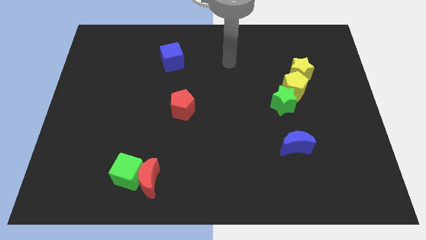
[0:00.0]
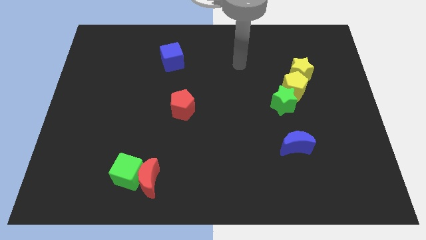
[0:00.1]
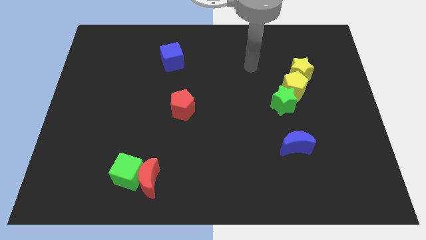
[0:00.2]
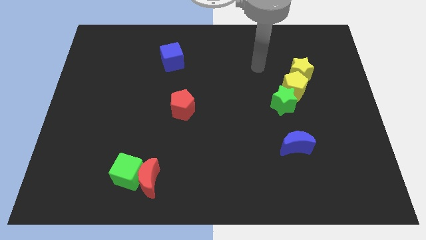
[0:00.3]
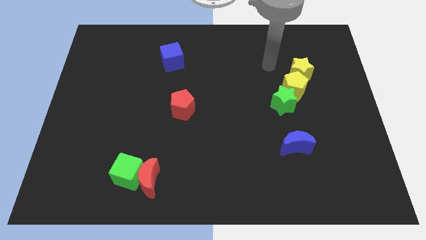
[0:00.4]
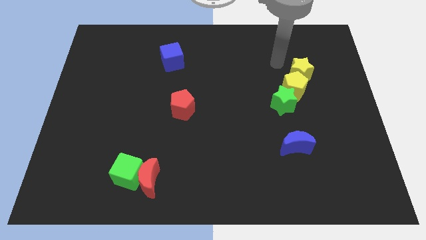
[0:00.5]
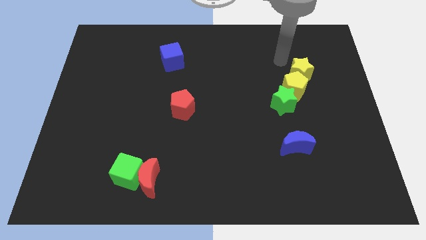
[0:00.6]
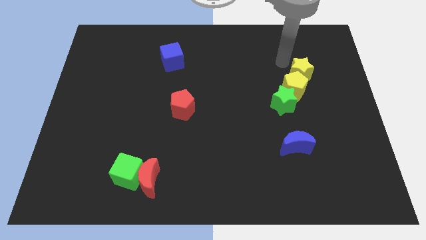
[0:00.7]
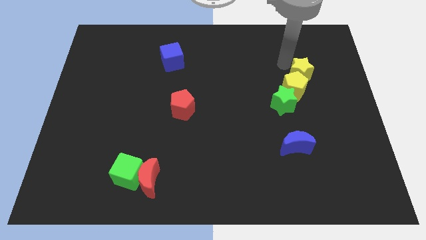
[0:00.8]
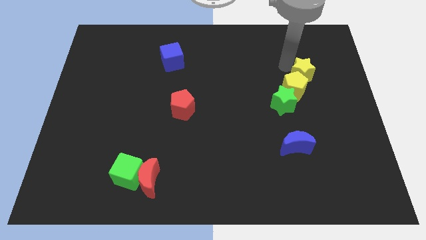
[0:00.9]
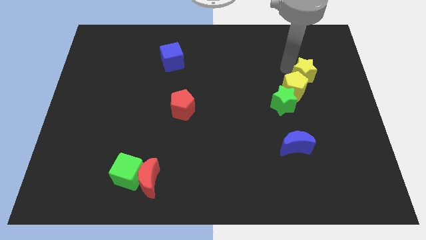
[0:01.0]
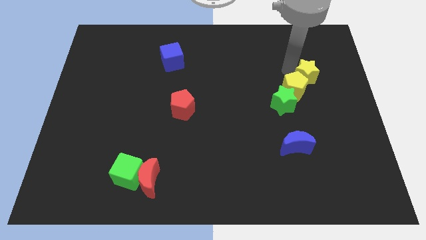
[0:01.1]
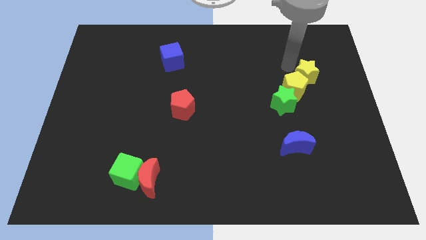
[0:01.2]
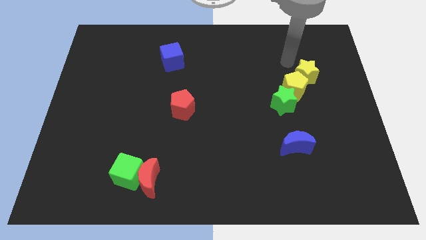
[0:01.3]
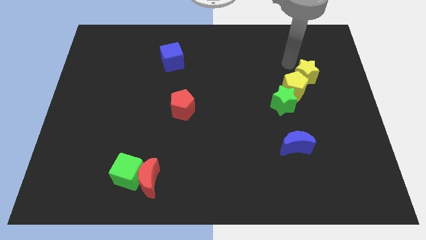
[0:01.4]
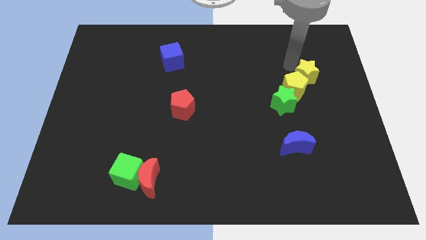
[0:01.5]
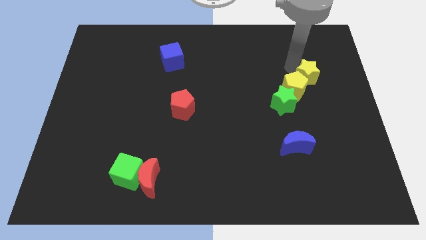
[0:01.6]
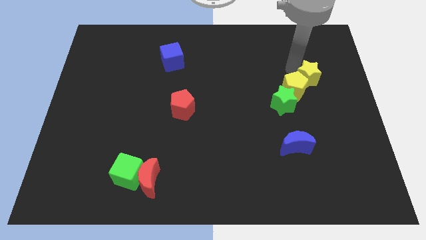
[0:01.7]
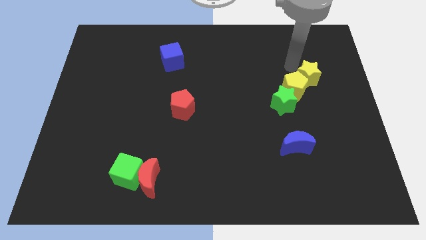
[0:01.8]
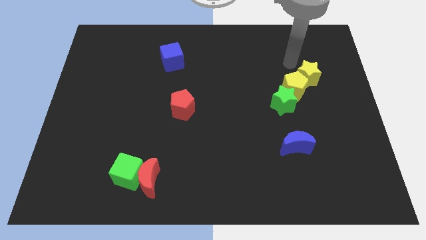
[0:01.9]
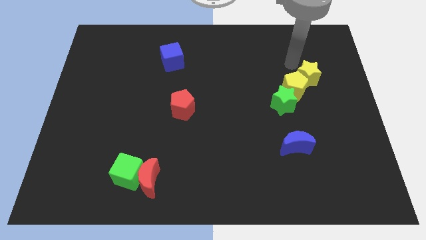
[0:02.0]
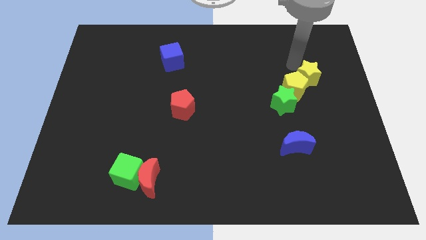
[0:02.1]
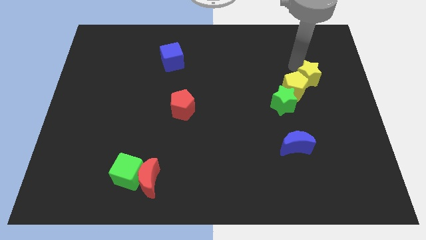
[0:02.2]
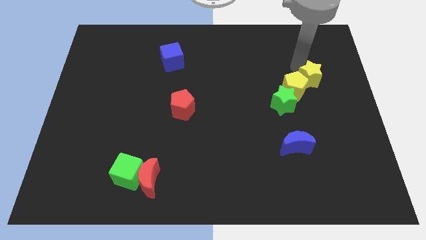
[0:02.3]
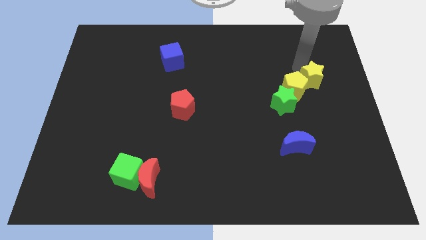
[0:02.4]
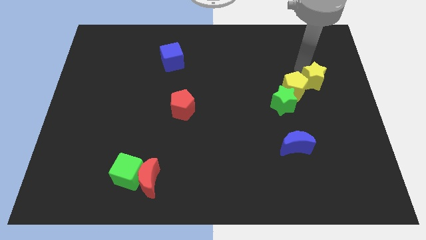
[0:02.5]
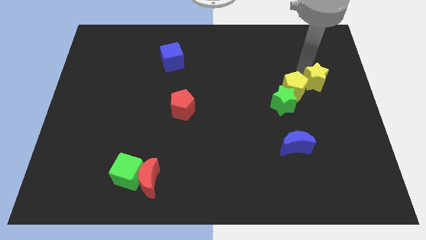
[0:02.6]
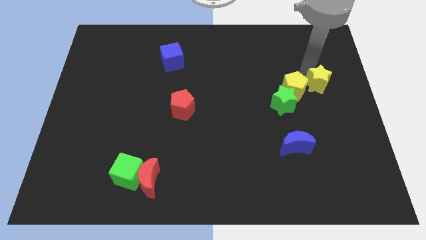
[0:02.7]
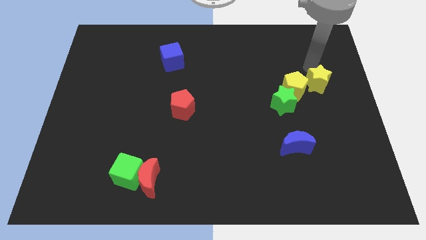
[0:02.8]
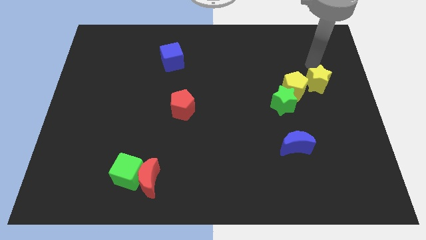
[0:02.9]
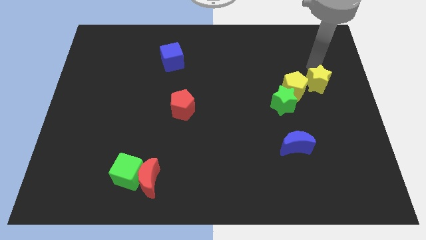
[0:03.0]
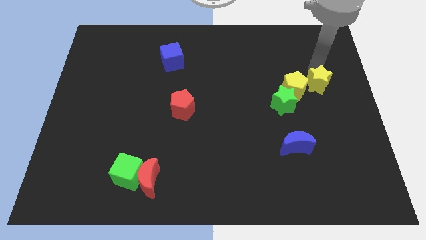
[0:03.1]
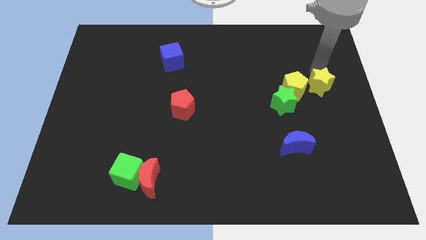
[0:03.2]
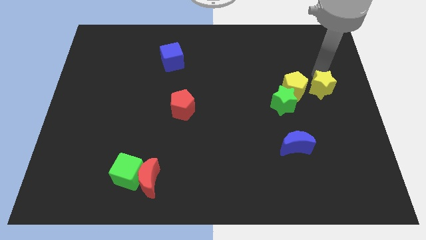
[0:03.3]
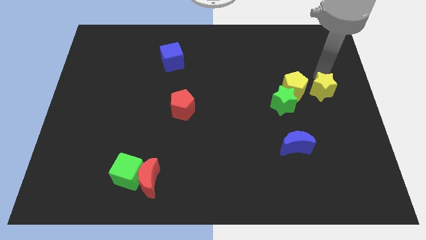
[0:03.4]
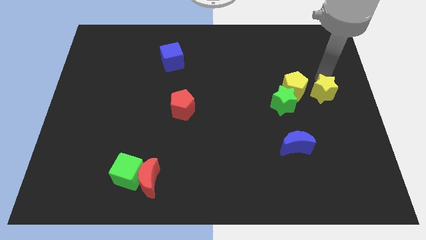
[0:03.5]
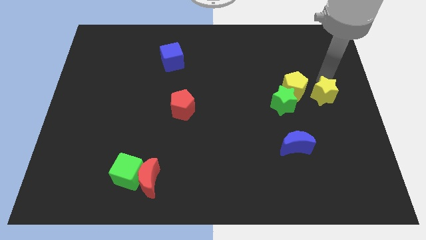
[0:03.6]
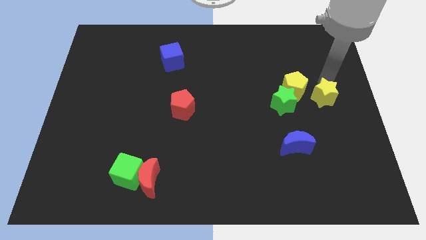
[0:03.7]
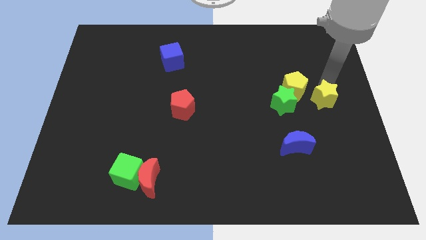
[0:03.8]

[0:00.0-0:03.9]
push the yellow star a little down

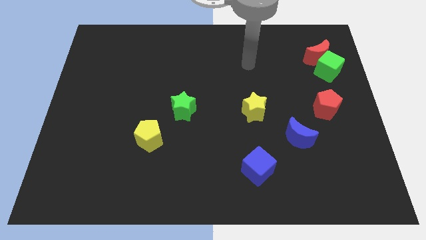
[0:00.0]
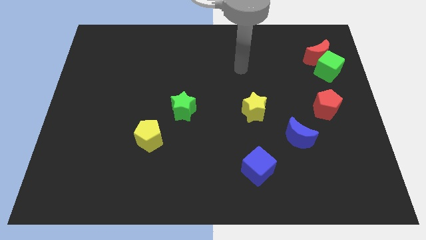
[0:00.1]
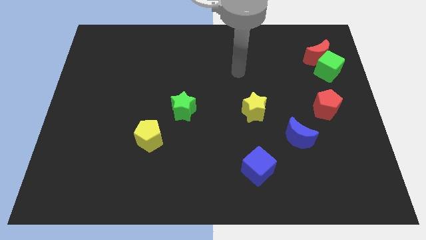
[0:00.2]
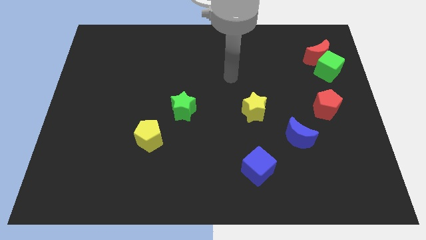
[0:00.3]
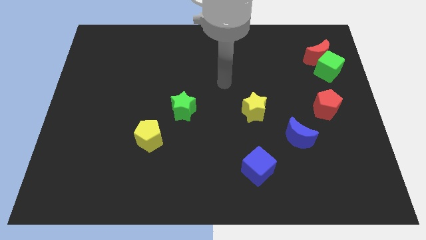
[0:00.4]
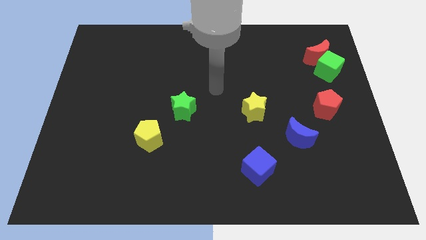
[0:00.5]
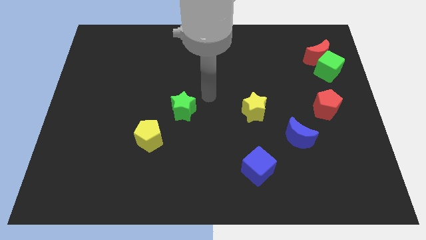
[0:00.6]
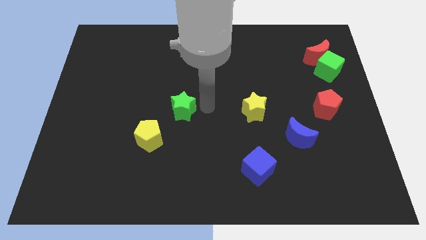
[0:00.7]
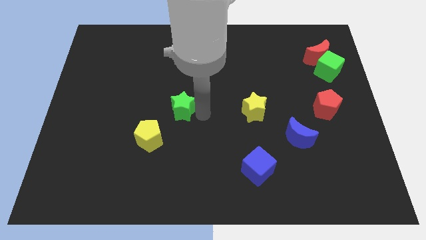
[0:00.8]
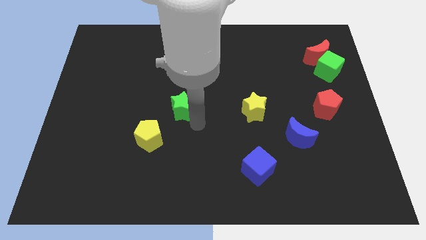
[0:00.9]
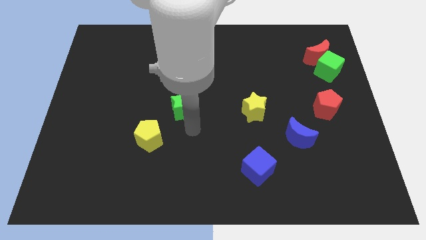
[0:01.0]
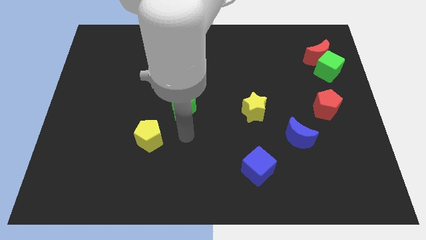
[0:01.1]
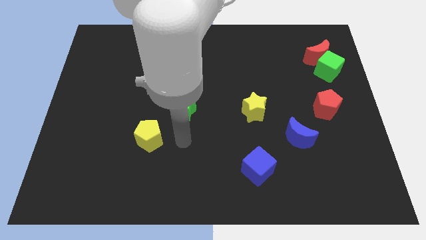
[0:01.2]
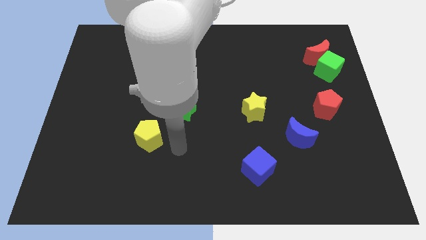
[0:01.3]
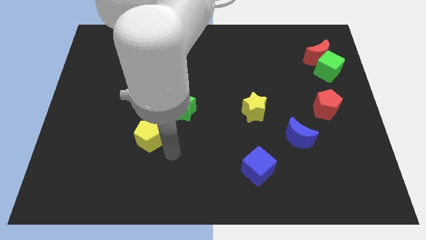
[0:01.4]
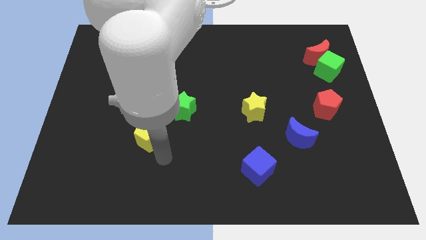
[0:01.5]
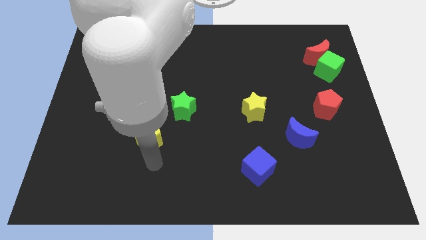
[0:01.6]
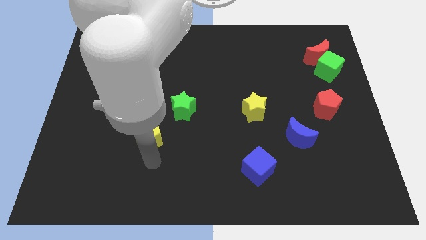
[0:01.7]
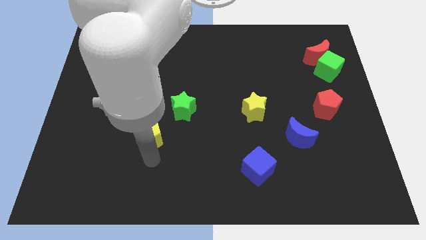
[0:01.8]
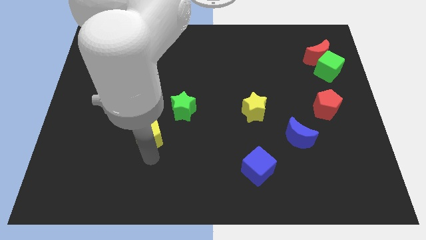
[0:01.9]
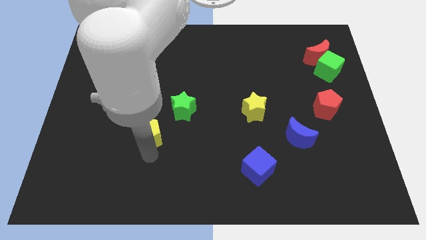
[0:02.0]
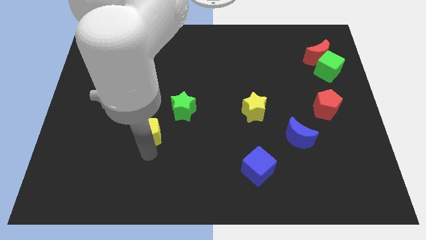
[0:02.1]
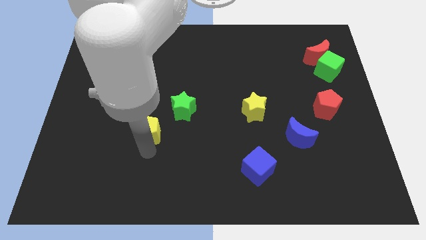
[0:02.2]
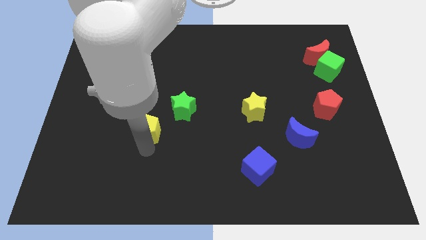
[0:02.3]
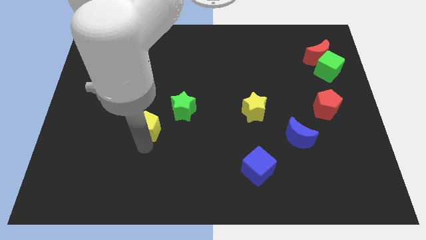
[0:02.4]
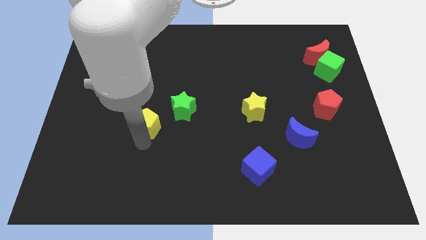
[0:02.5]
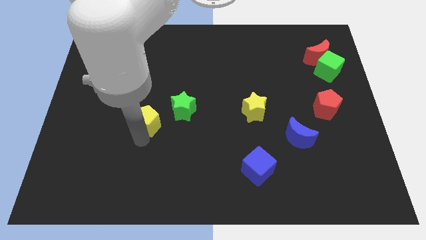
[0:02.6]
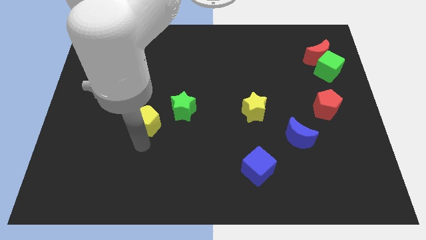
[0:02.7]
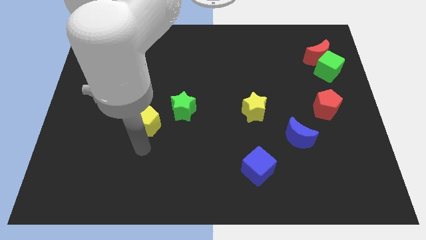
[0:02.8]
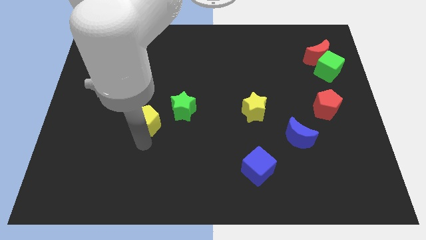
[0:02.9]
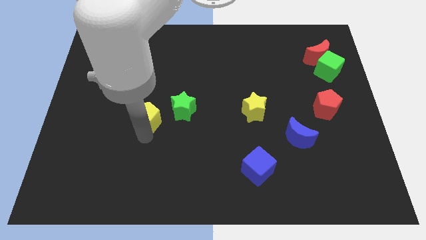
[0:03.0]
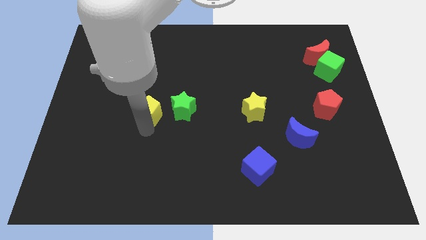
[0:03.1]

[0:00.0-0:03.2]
slide the yellow pentagon up somewhat

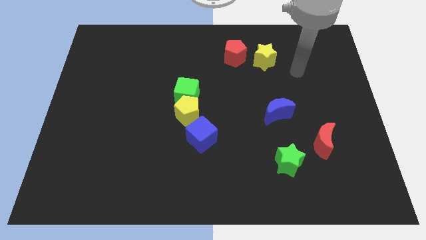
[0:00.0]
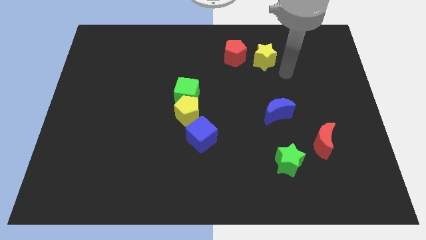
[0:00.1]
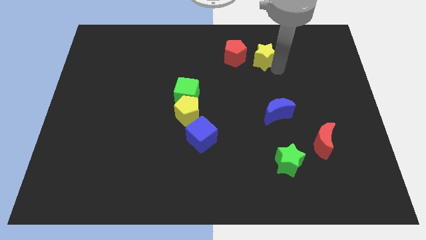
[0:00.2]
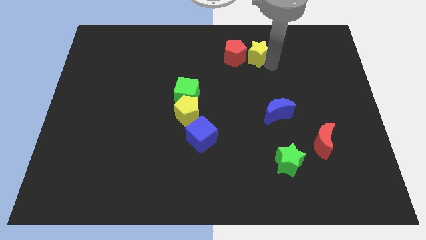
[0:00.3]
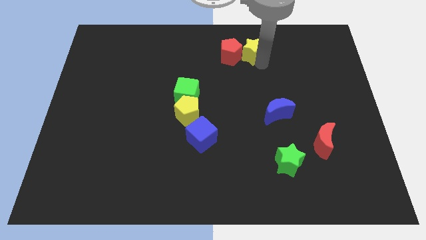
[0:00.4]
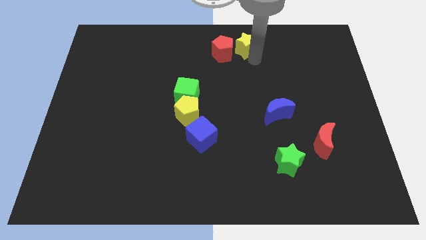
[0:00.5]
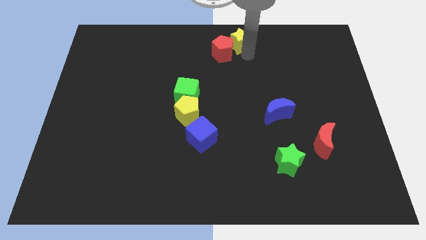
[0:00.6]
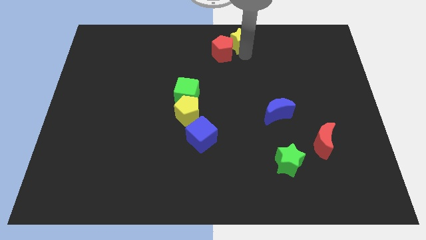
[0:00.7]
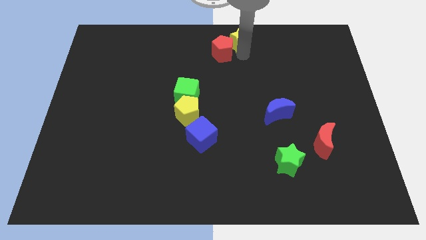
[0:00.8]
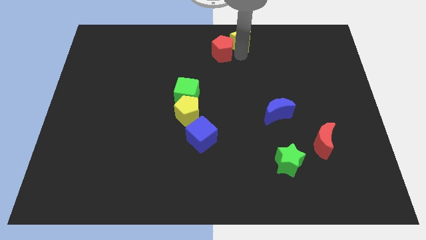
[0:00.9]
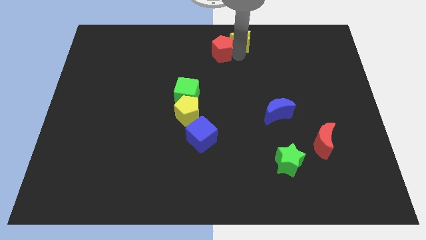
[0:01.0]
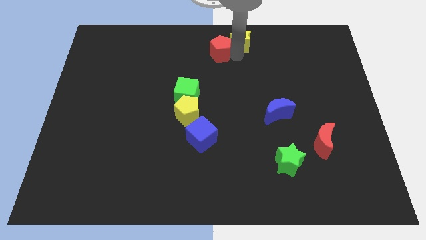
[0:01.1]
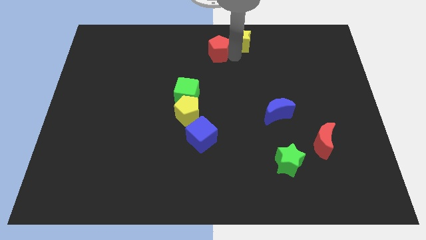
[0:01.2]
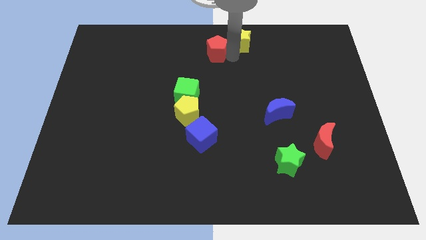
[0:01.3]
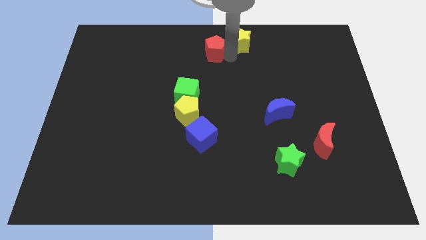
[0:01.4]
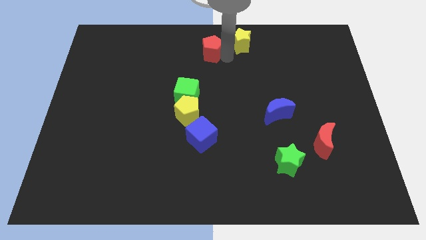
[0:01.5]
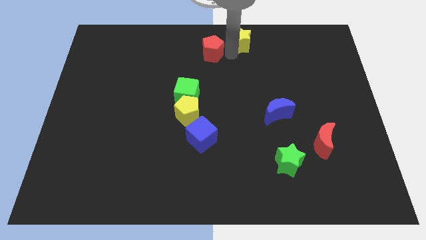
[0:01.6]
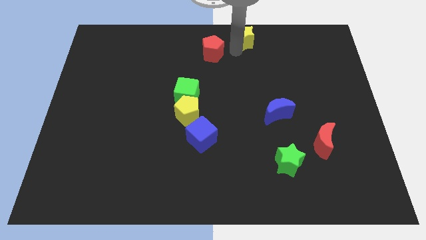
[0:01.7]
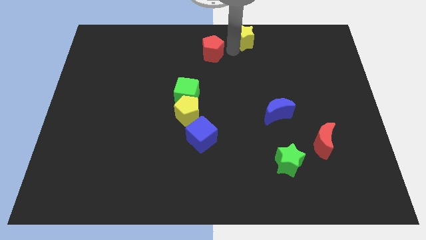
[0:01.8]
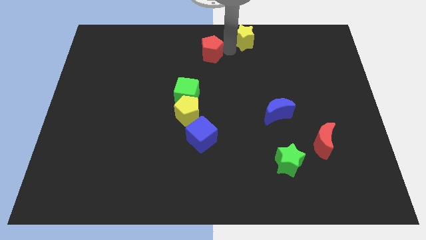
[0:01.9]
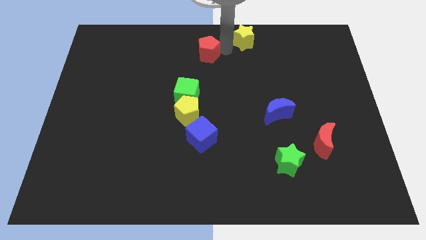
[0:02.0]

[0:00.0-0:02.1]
move the red pentagon left a little bit
